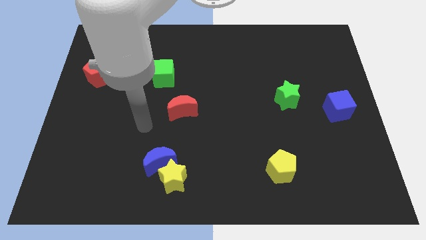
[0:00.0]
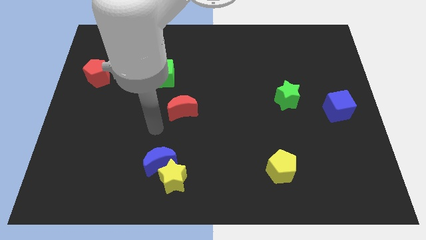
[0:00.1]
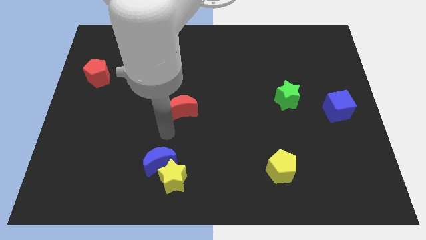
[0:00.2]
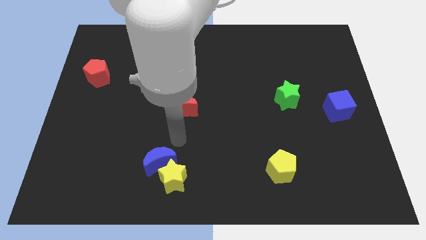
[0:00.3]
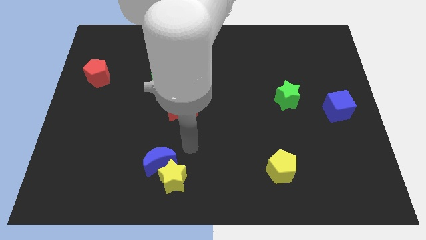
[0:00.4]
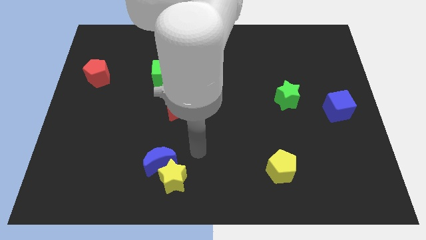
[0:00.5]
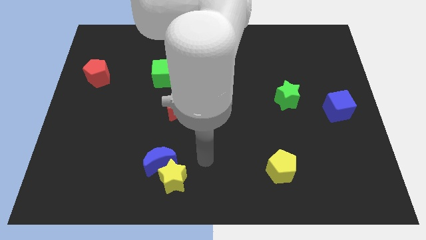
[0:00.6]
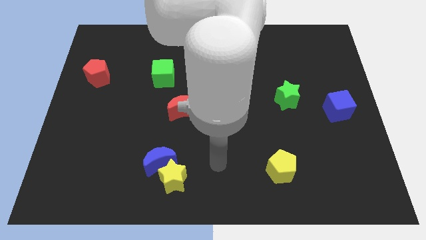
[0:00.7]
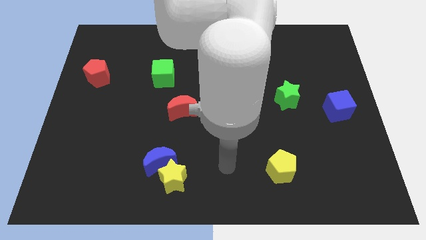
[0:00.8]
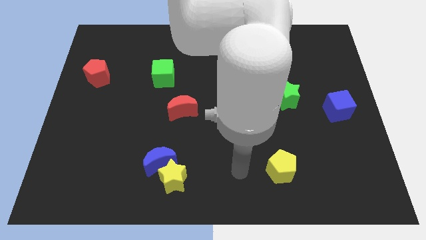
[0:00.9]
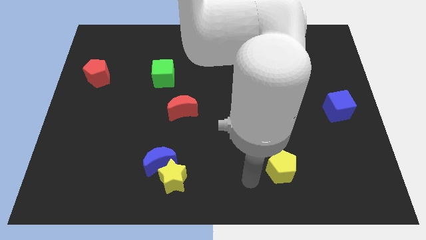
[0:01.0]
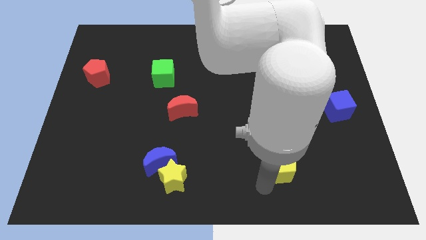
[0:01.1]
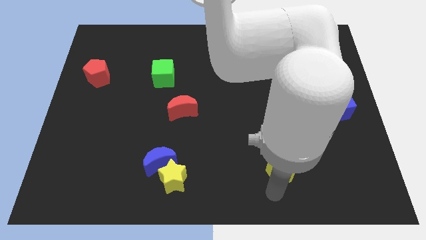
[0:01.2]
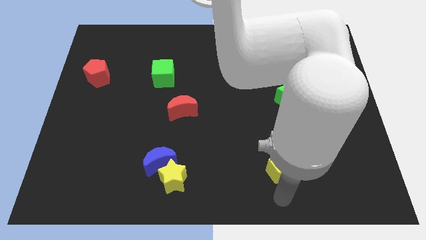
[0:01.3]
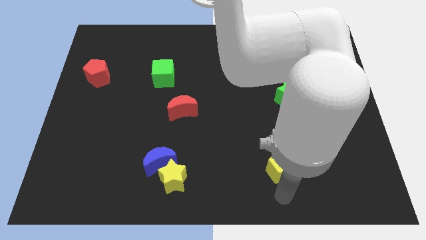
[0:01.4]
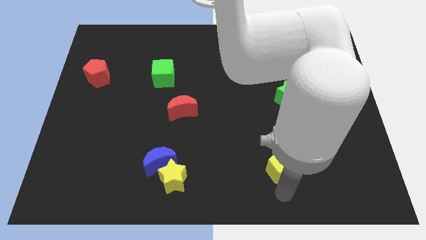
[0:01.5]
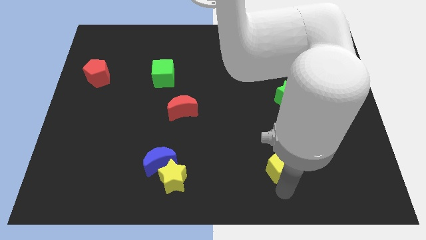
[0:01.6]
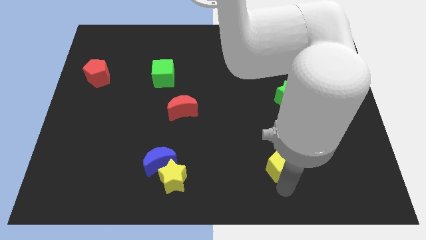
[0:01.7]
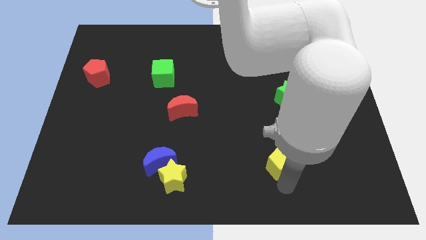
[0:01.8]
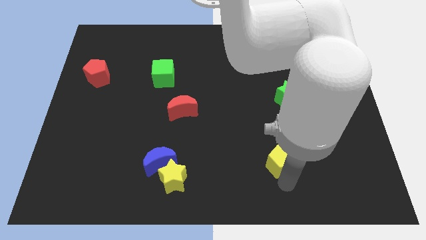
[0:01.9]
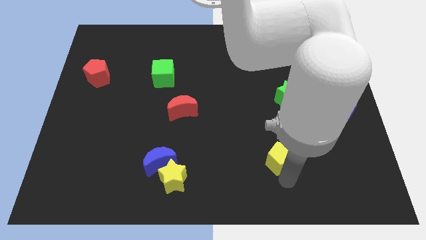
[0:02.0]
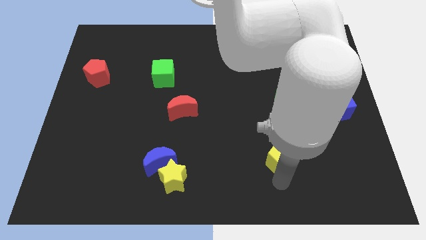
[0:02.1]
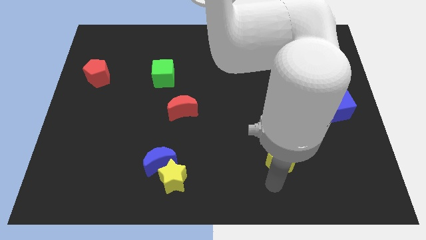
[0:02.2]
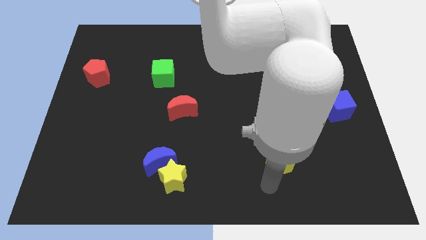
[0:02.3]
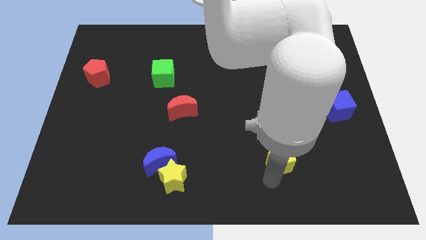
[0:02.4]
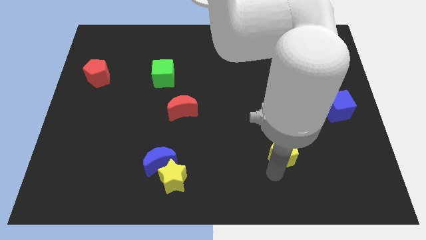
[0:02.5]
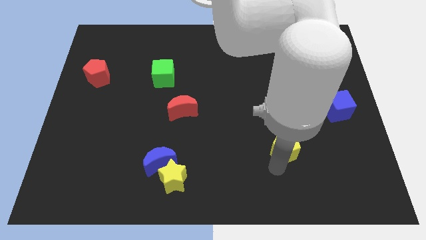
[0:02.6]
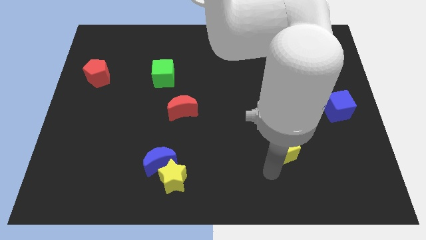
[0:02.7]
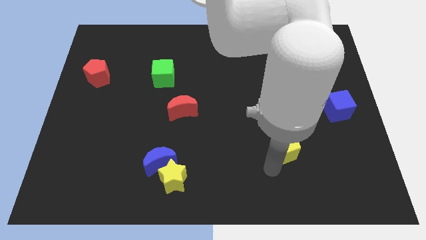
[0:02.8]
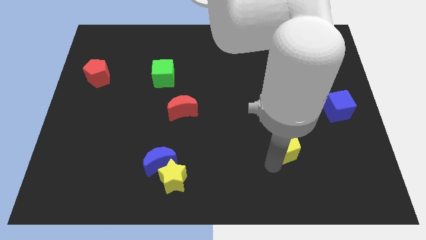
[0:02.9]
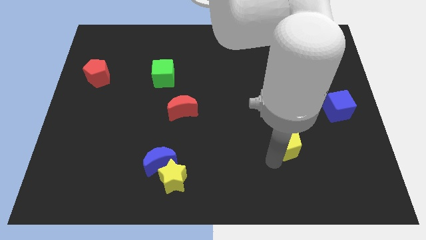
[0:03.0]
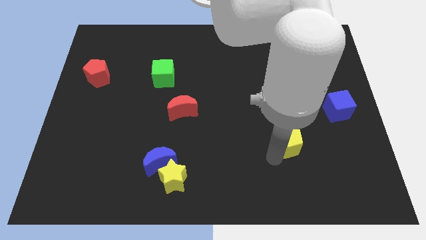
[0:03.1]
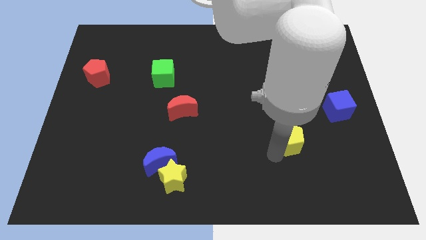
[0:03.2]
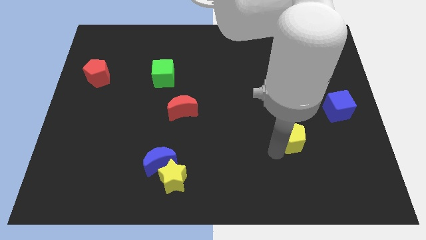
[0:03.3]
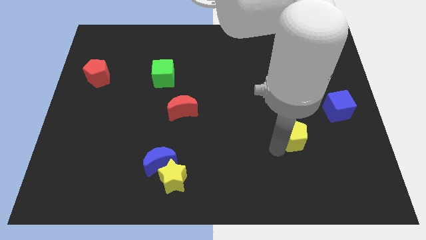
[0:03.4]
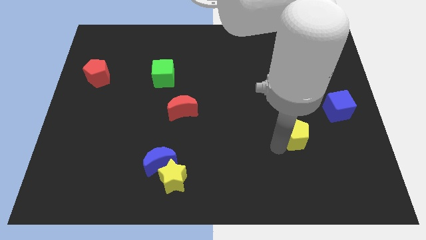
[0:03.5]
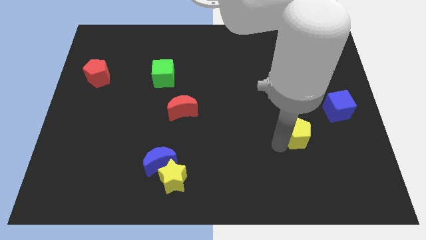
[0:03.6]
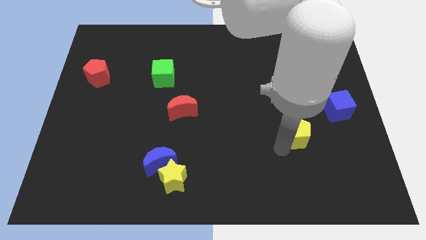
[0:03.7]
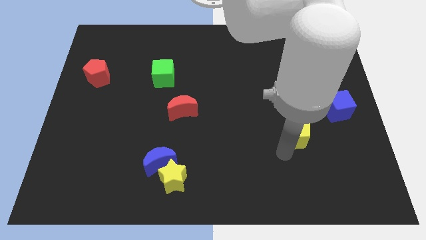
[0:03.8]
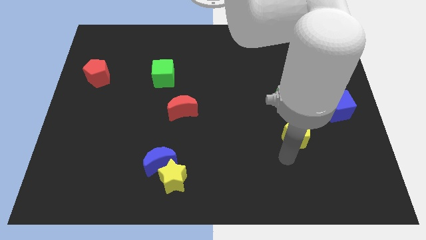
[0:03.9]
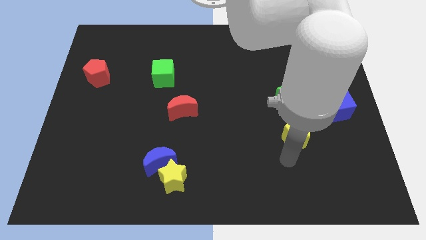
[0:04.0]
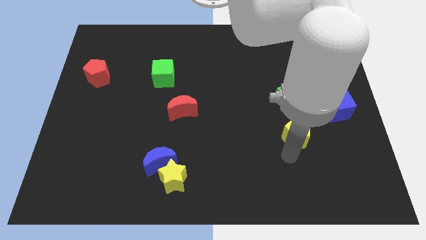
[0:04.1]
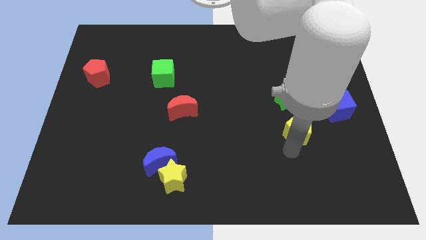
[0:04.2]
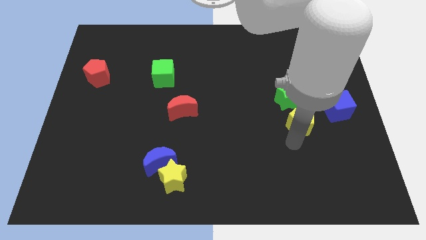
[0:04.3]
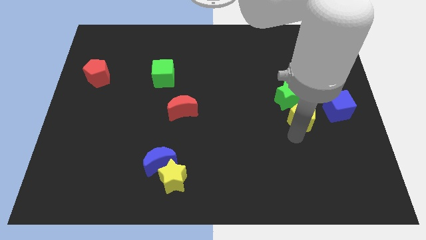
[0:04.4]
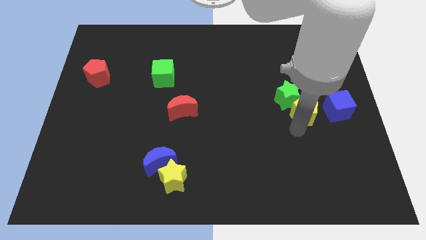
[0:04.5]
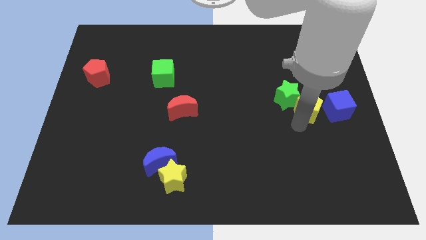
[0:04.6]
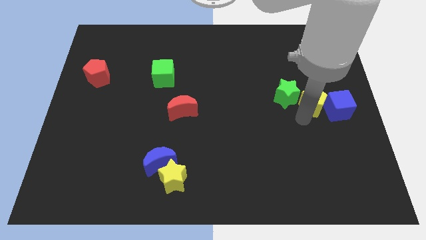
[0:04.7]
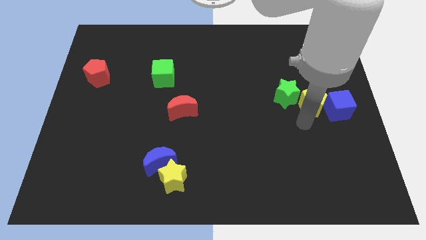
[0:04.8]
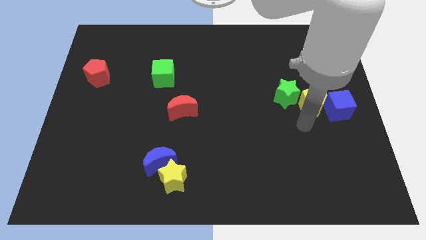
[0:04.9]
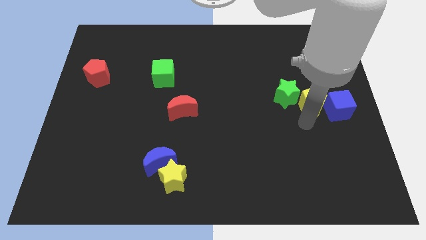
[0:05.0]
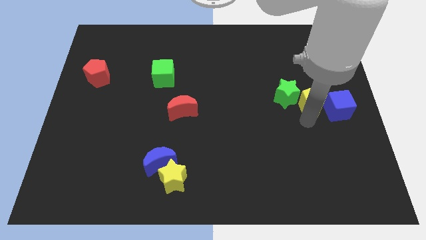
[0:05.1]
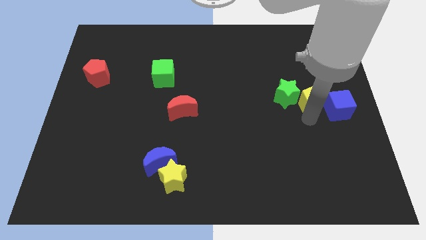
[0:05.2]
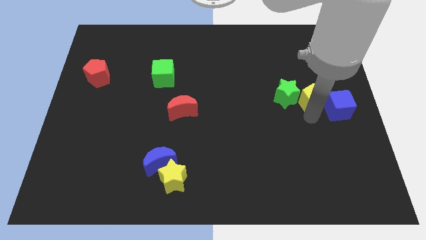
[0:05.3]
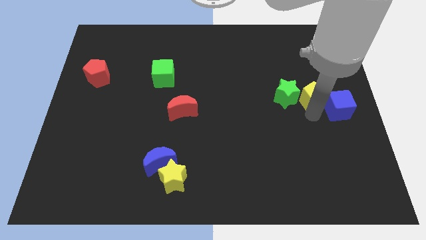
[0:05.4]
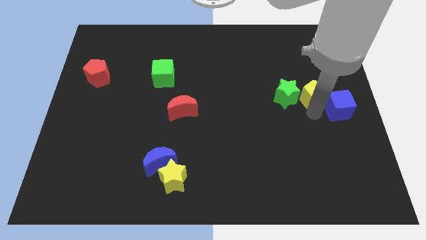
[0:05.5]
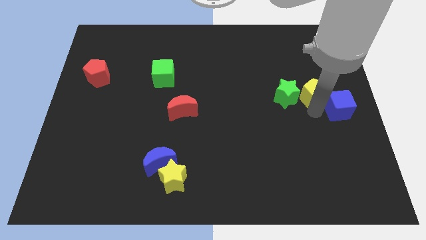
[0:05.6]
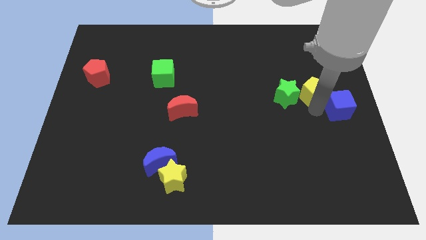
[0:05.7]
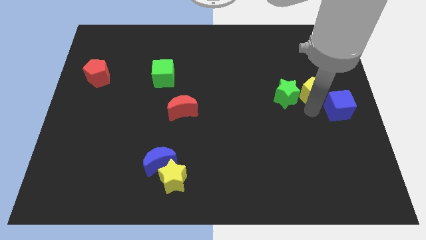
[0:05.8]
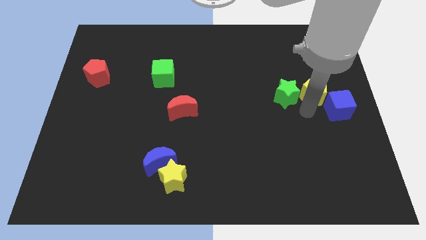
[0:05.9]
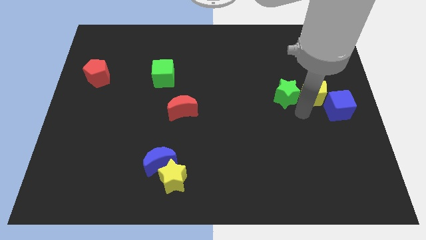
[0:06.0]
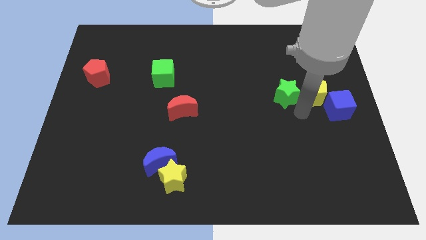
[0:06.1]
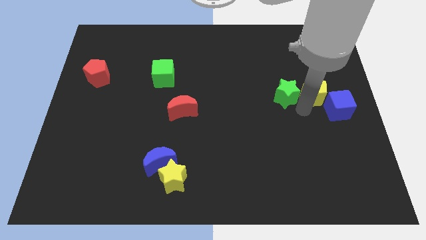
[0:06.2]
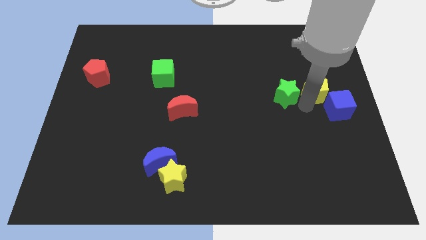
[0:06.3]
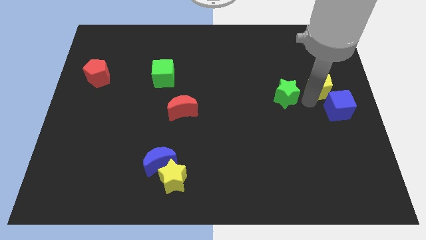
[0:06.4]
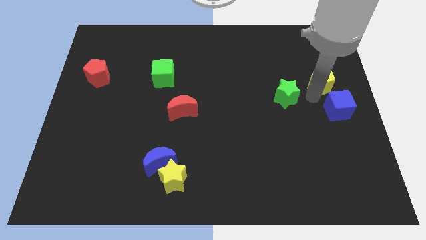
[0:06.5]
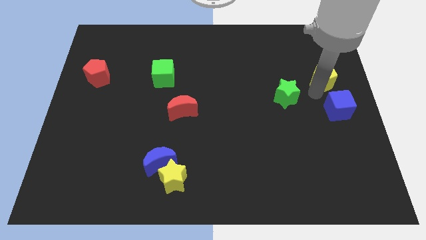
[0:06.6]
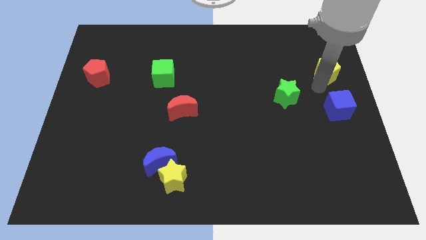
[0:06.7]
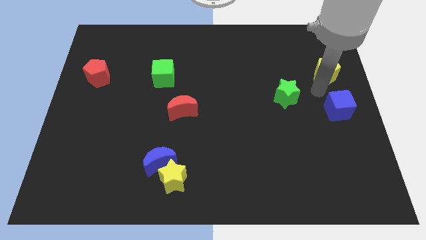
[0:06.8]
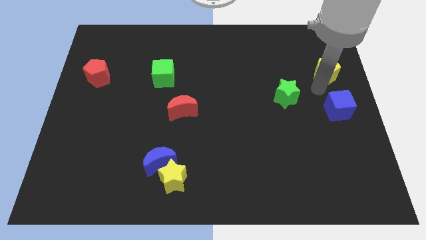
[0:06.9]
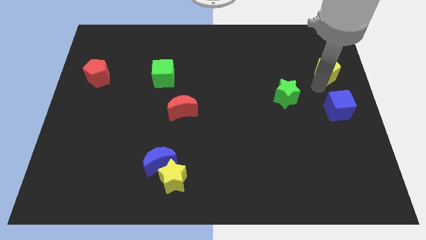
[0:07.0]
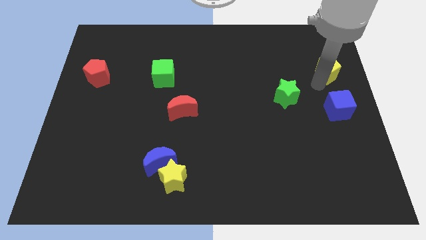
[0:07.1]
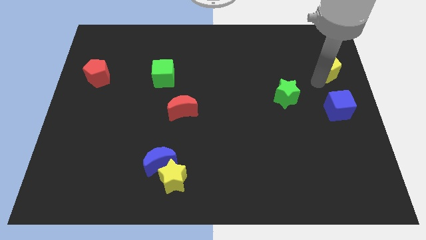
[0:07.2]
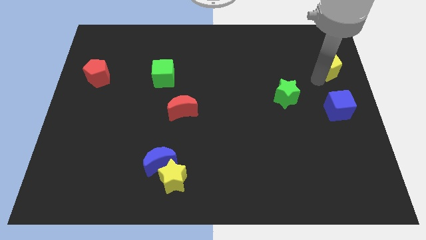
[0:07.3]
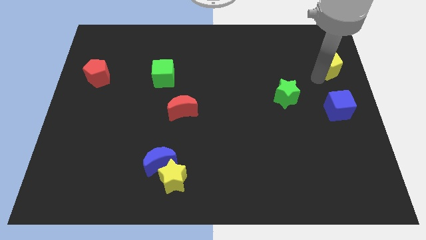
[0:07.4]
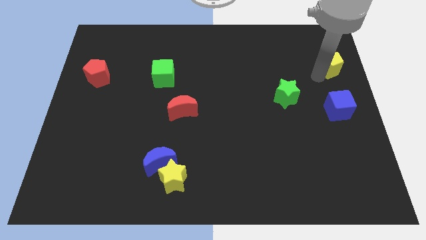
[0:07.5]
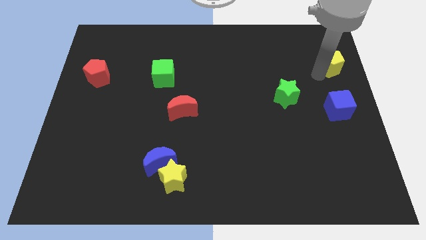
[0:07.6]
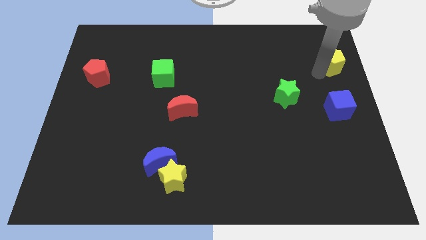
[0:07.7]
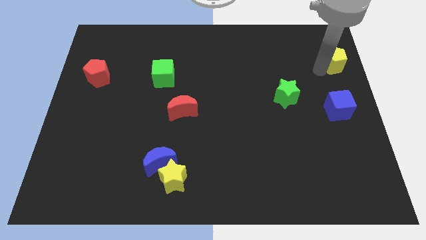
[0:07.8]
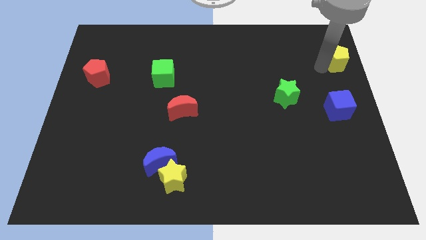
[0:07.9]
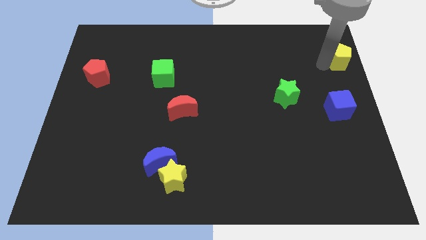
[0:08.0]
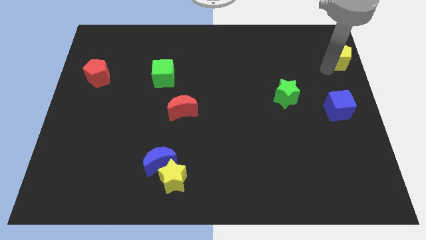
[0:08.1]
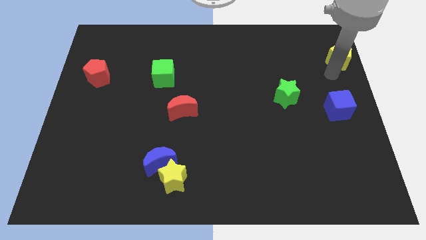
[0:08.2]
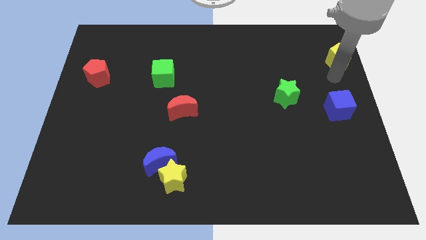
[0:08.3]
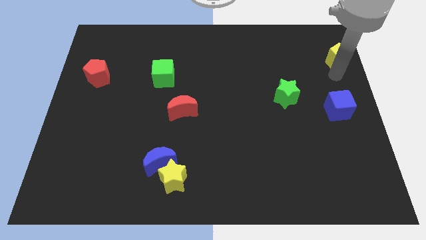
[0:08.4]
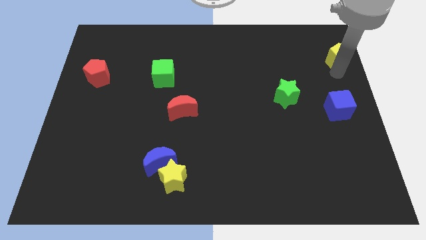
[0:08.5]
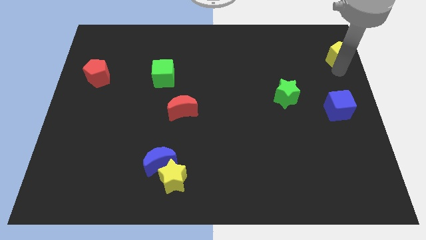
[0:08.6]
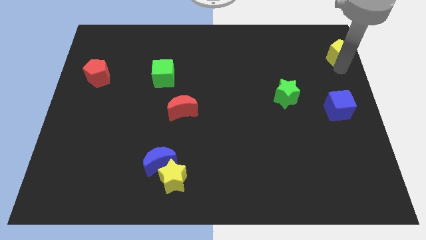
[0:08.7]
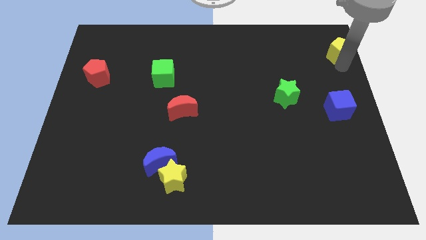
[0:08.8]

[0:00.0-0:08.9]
move the yellow pentagon to the top right of the board
